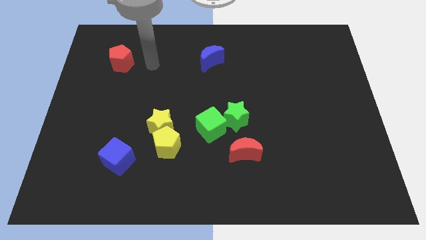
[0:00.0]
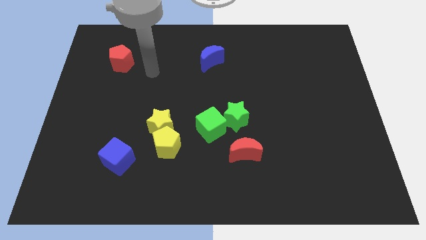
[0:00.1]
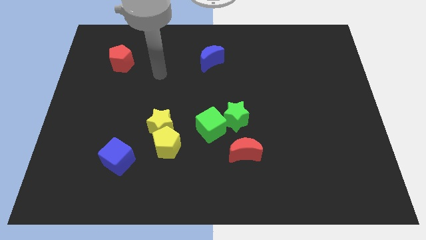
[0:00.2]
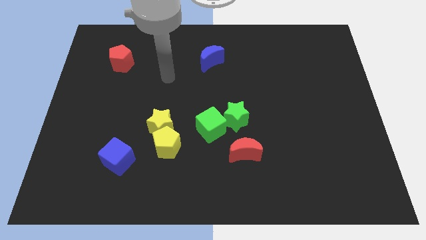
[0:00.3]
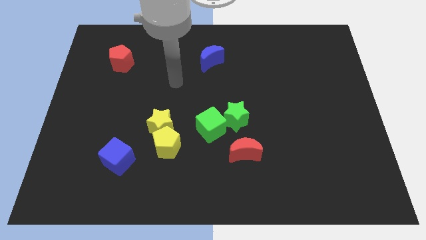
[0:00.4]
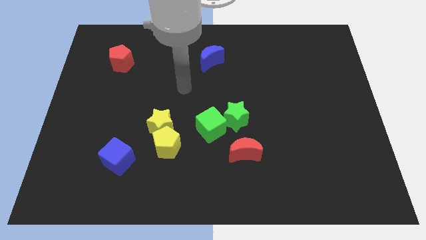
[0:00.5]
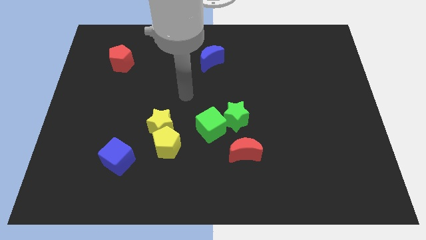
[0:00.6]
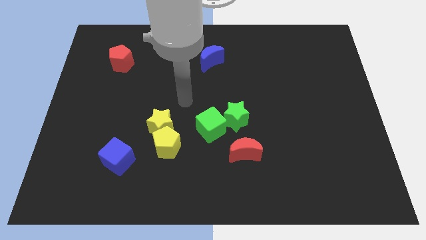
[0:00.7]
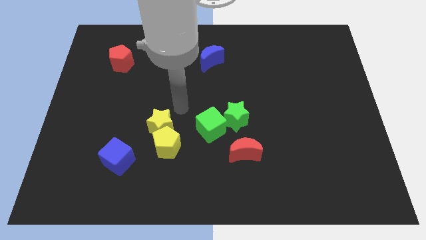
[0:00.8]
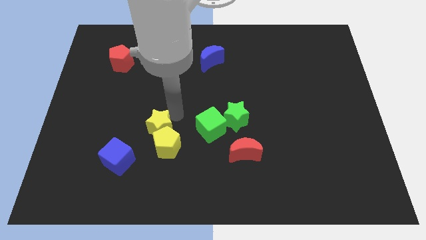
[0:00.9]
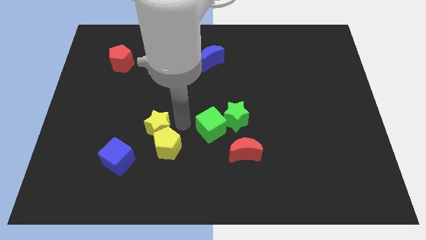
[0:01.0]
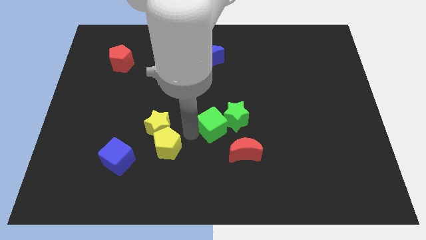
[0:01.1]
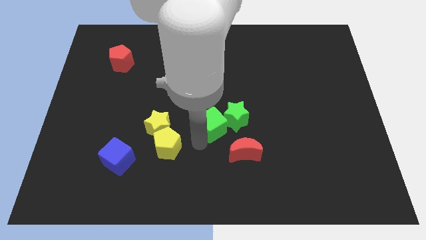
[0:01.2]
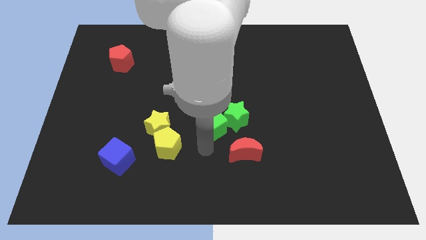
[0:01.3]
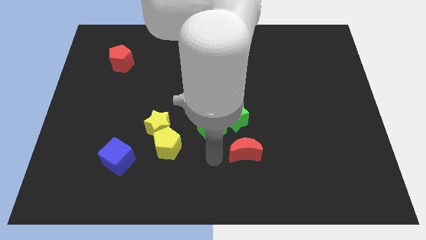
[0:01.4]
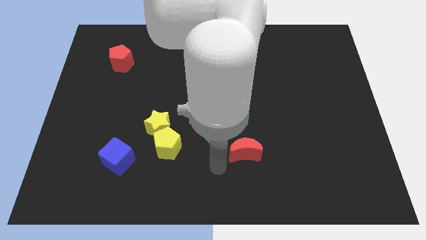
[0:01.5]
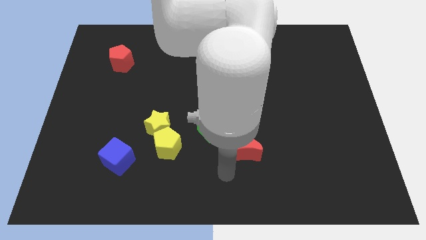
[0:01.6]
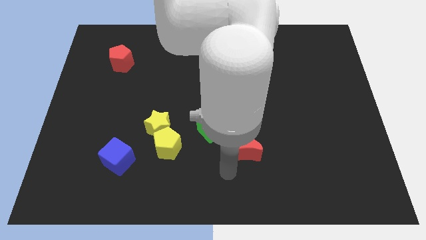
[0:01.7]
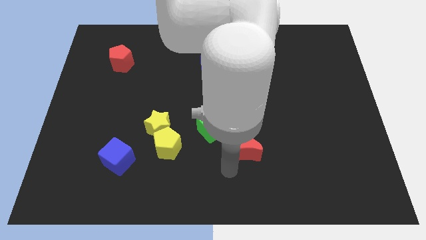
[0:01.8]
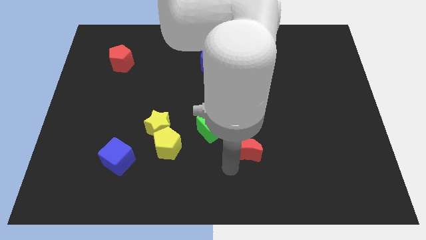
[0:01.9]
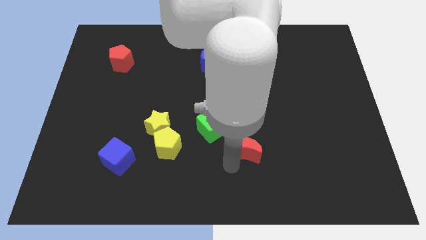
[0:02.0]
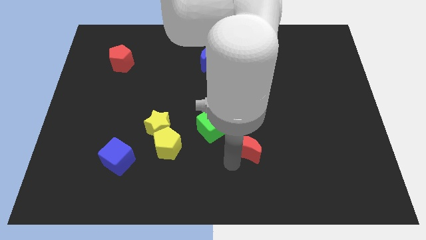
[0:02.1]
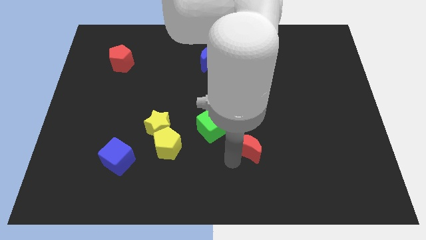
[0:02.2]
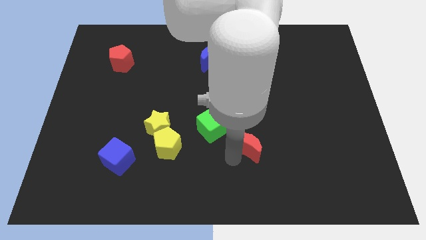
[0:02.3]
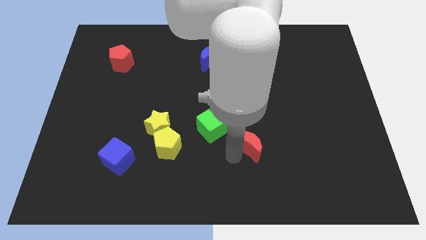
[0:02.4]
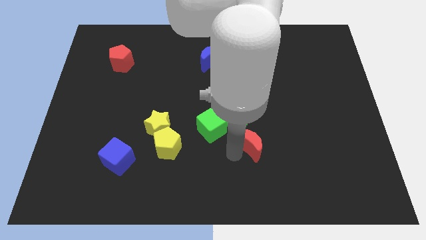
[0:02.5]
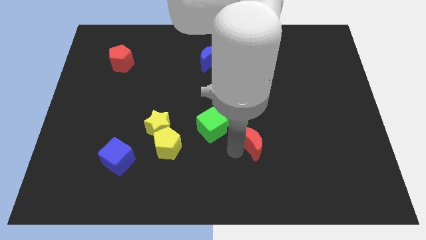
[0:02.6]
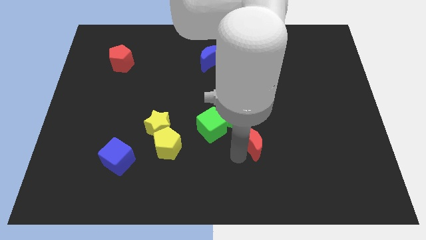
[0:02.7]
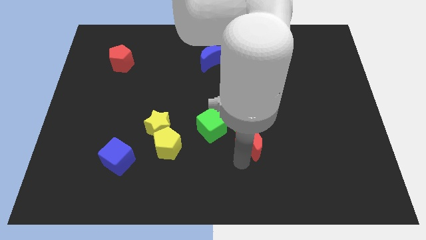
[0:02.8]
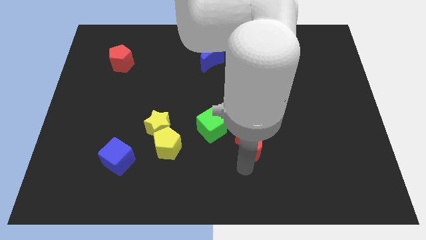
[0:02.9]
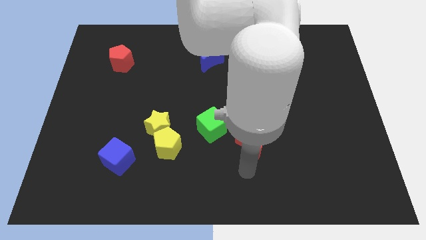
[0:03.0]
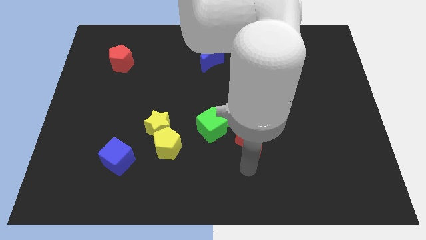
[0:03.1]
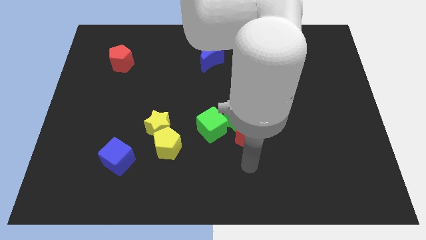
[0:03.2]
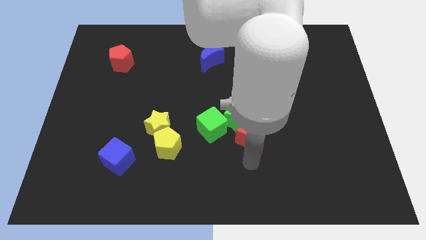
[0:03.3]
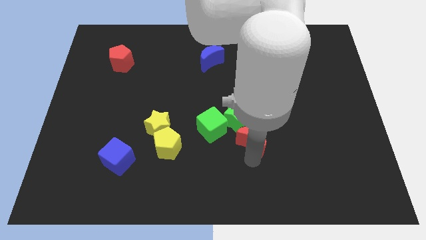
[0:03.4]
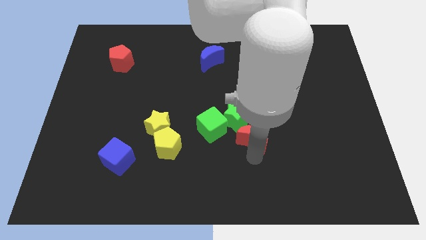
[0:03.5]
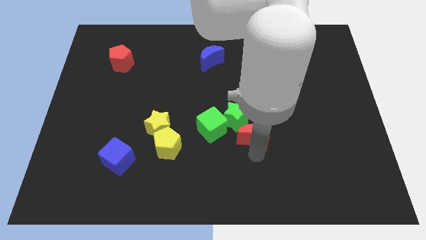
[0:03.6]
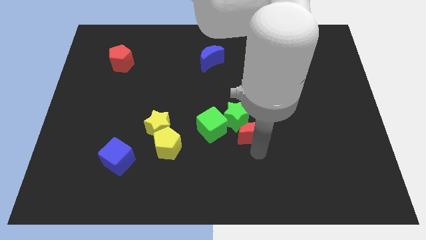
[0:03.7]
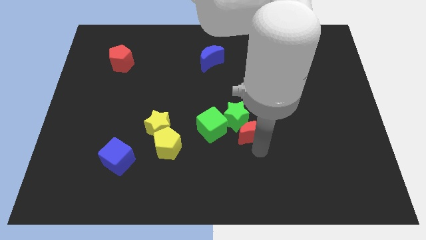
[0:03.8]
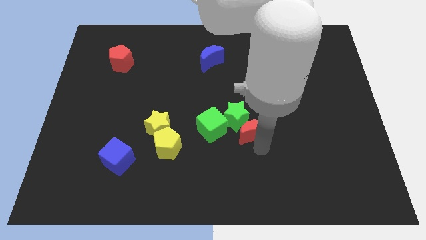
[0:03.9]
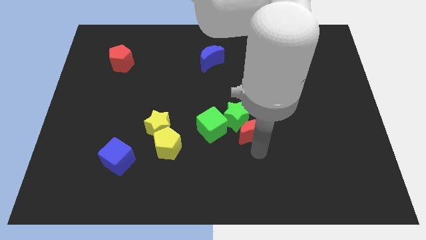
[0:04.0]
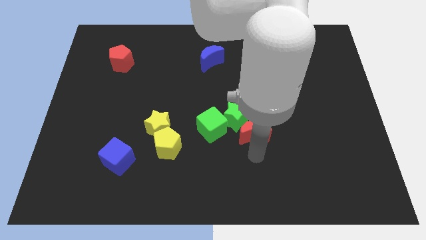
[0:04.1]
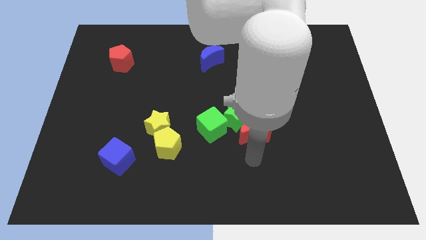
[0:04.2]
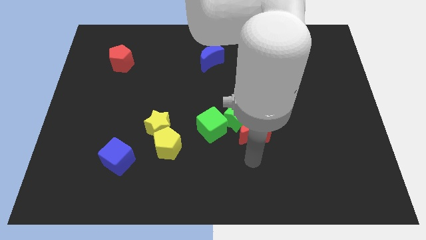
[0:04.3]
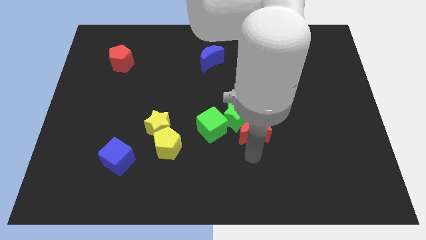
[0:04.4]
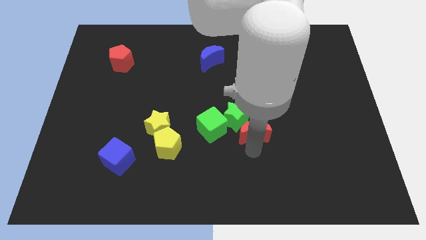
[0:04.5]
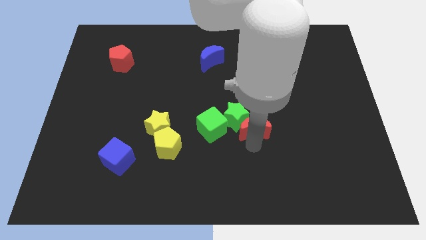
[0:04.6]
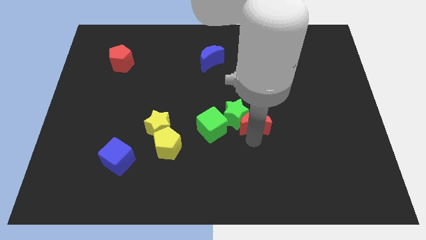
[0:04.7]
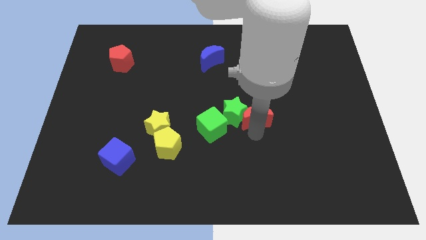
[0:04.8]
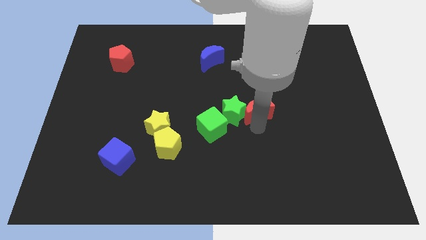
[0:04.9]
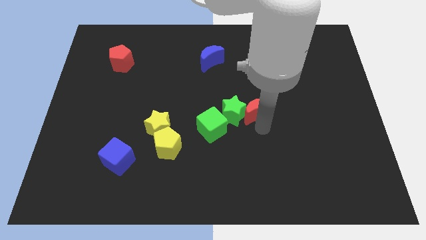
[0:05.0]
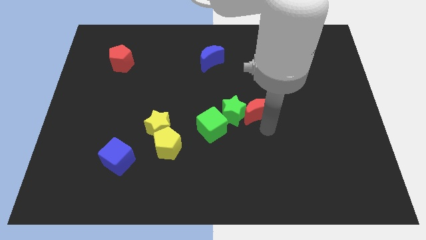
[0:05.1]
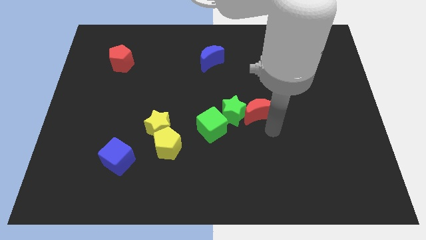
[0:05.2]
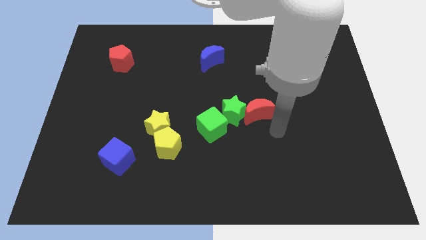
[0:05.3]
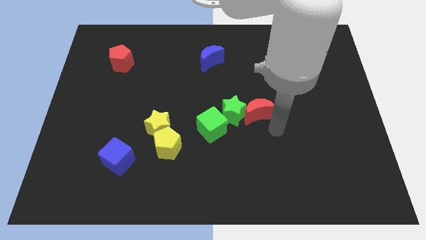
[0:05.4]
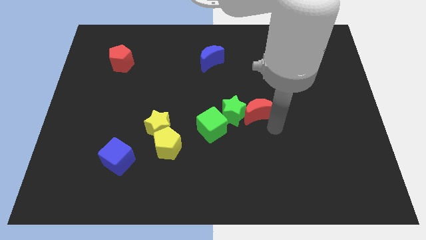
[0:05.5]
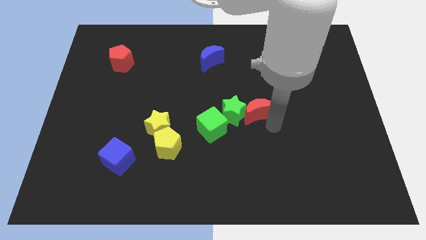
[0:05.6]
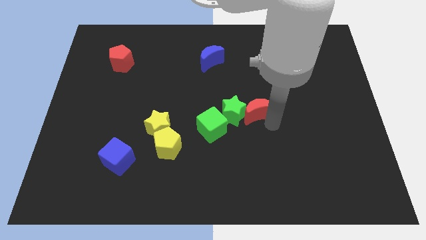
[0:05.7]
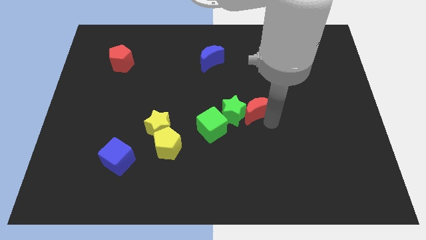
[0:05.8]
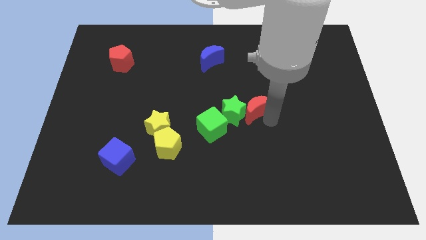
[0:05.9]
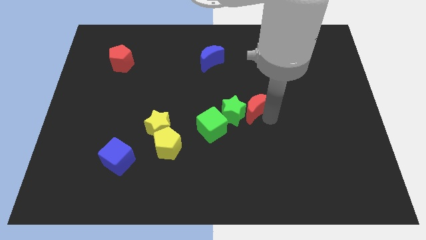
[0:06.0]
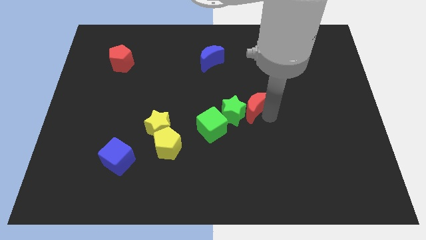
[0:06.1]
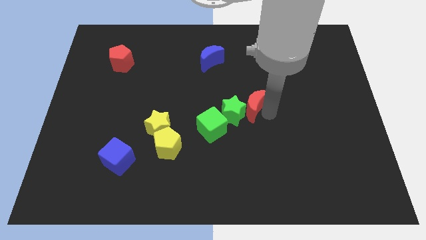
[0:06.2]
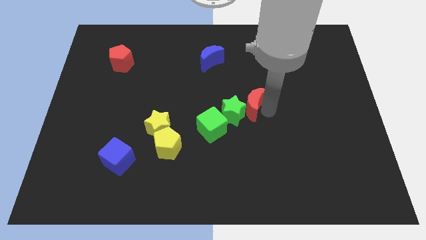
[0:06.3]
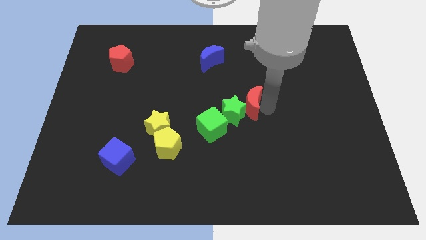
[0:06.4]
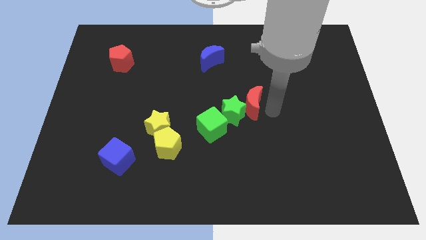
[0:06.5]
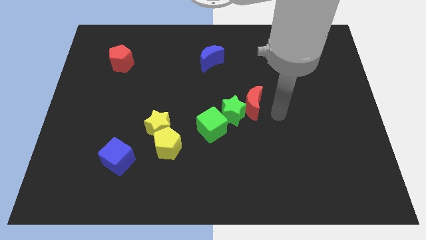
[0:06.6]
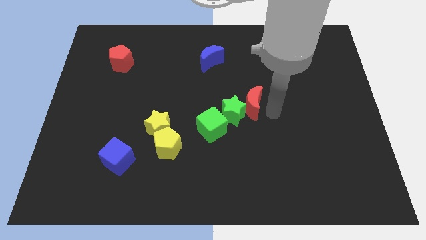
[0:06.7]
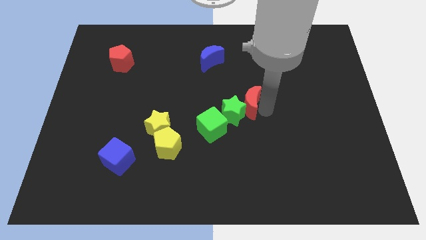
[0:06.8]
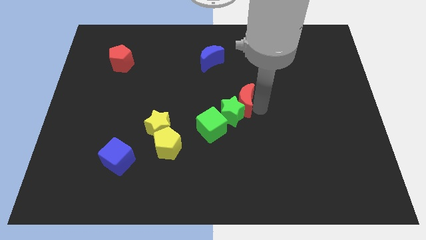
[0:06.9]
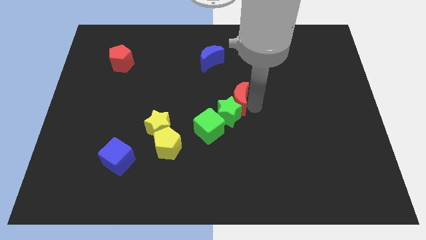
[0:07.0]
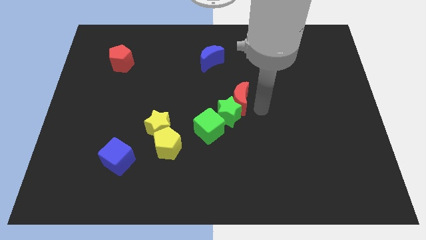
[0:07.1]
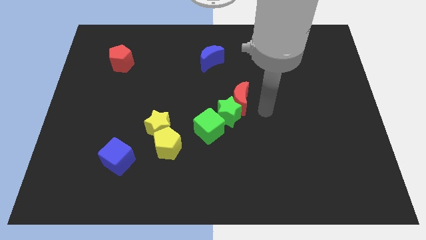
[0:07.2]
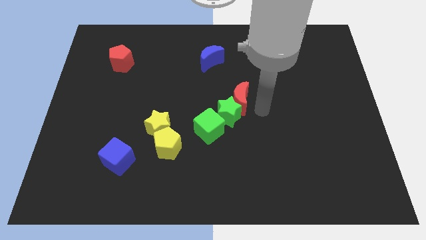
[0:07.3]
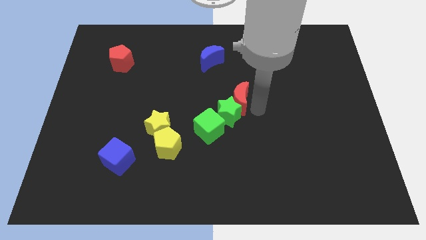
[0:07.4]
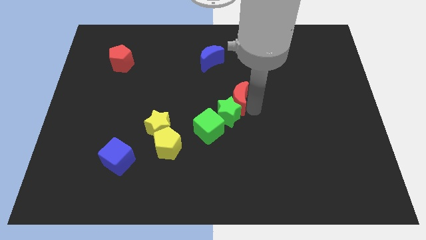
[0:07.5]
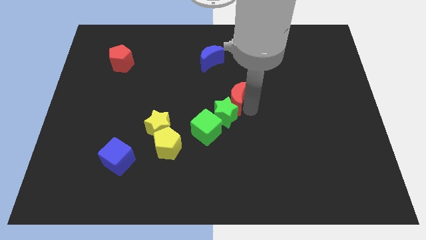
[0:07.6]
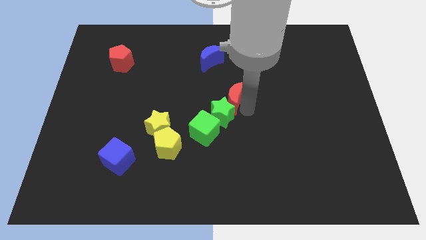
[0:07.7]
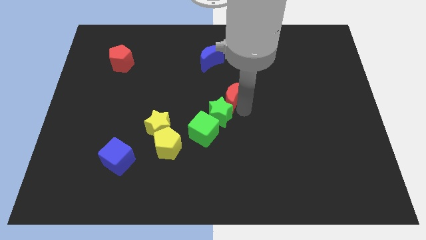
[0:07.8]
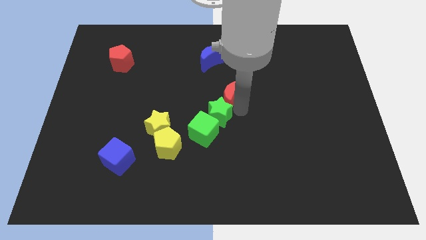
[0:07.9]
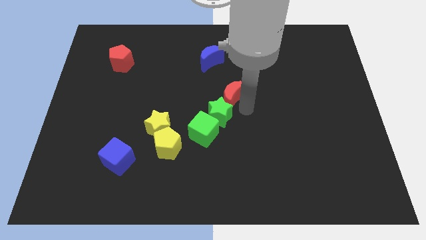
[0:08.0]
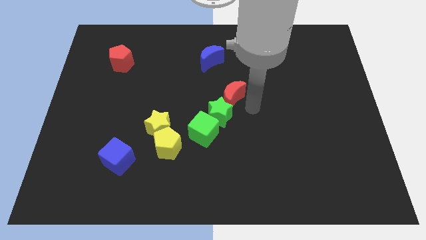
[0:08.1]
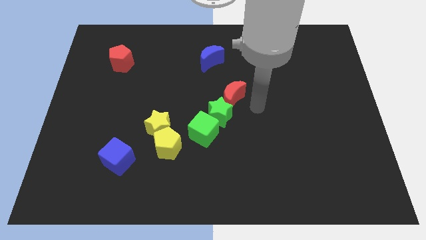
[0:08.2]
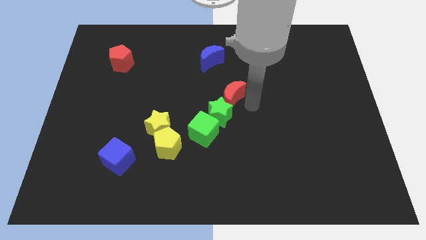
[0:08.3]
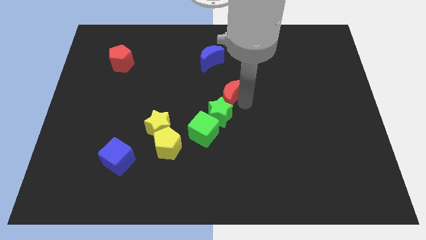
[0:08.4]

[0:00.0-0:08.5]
move the red moon below the blue moon

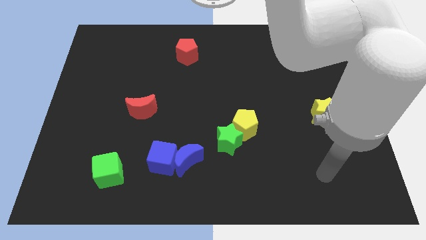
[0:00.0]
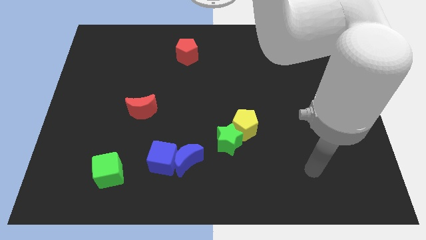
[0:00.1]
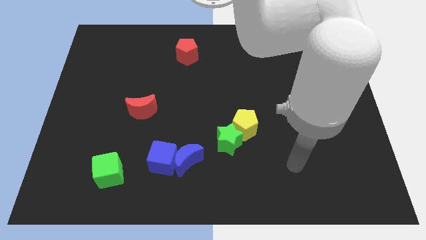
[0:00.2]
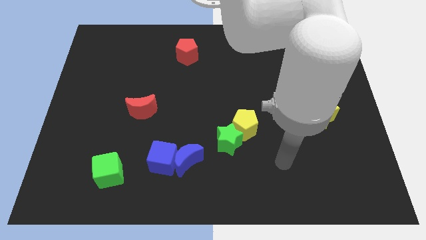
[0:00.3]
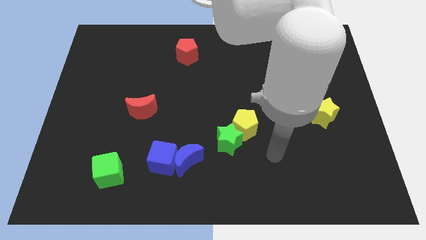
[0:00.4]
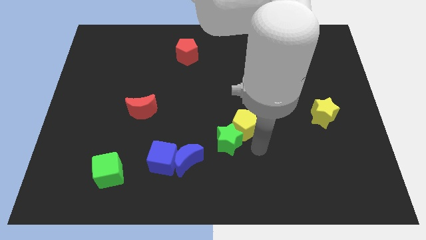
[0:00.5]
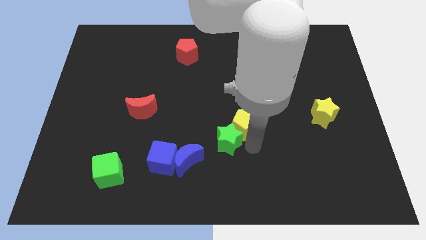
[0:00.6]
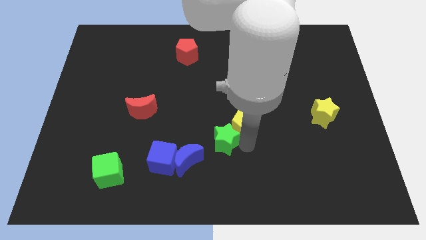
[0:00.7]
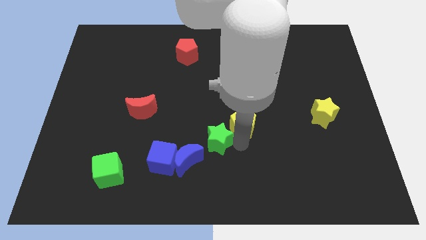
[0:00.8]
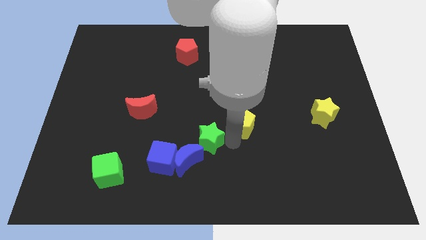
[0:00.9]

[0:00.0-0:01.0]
put the green star to the top right of the blue cube
